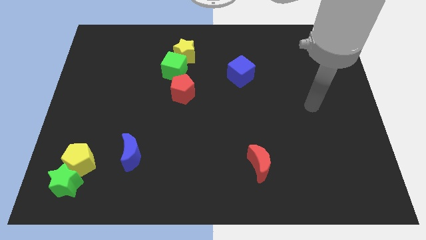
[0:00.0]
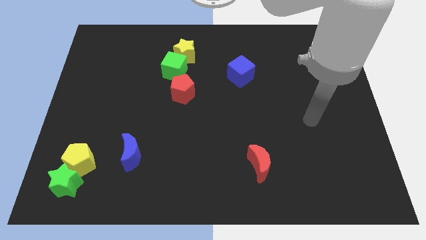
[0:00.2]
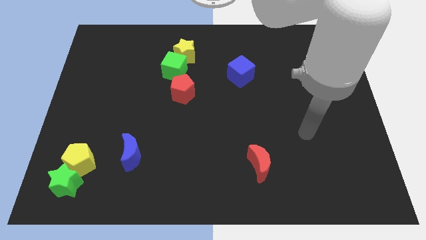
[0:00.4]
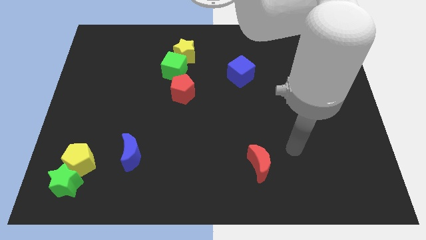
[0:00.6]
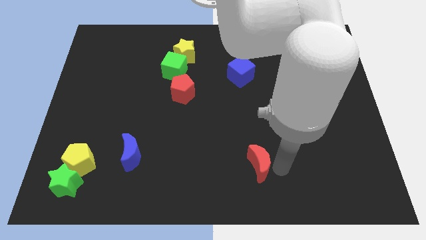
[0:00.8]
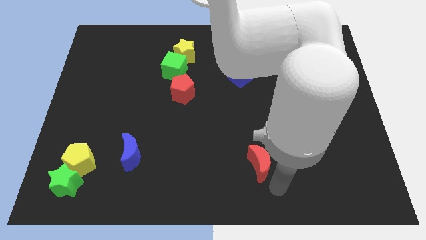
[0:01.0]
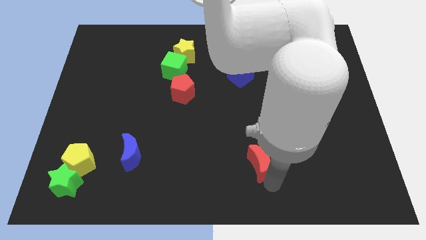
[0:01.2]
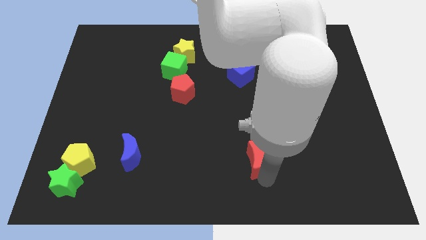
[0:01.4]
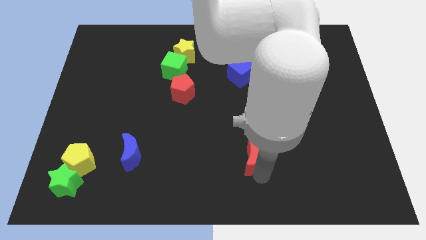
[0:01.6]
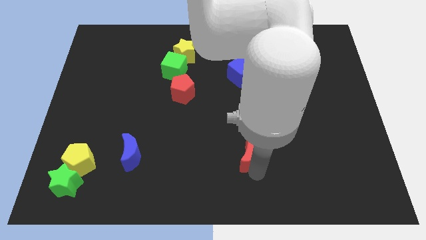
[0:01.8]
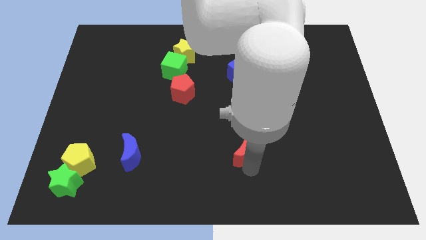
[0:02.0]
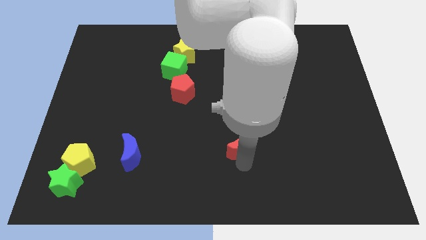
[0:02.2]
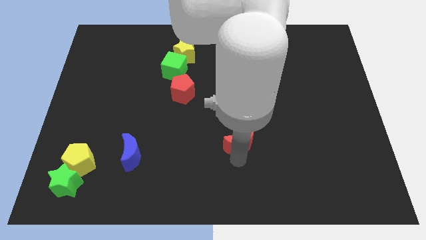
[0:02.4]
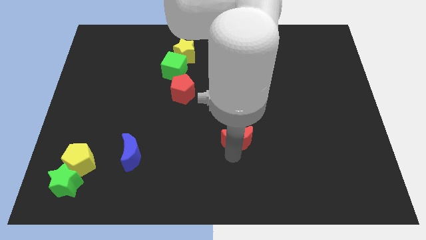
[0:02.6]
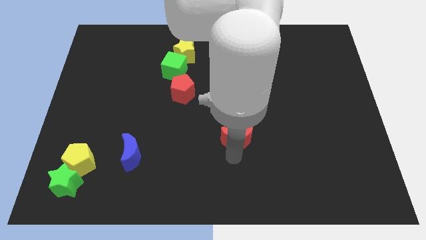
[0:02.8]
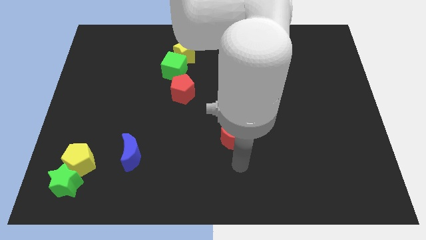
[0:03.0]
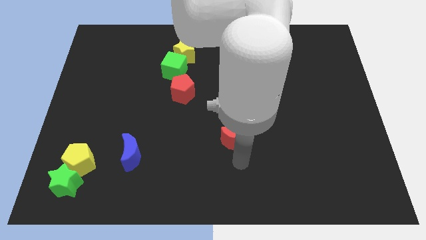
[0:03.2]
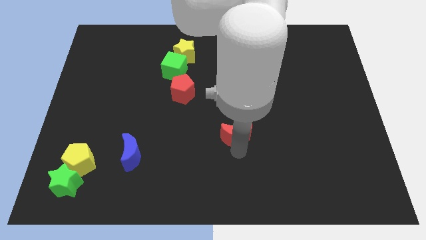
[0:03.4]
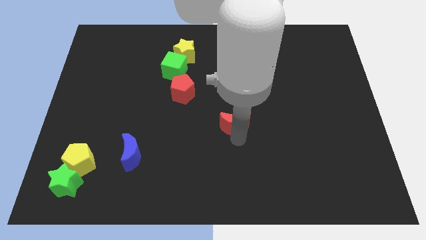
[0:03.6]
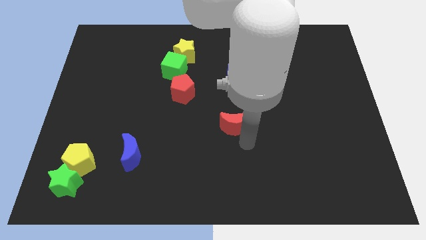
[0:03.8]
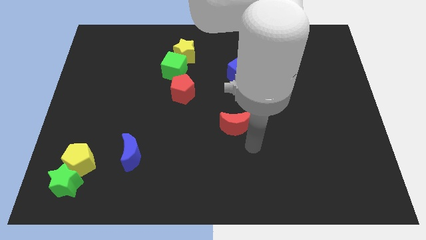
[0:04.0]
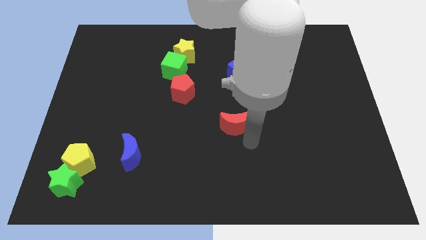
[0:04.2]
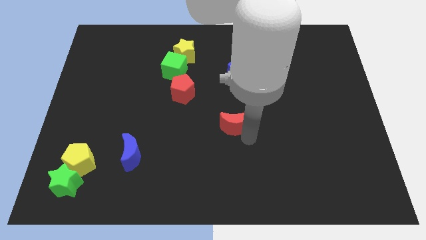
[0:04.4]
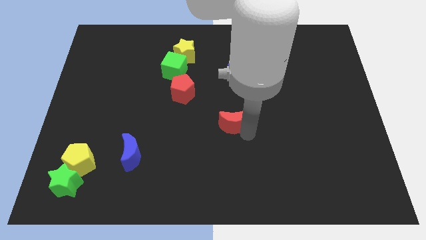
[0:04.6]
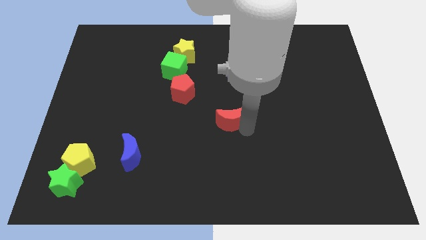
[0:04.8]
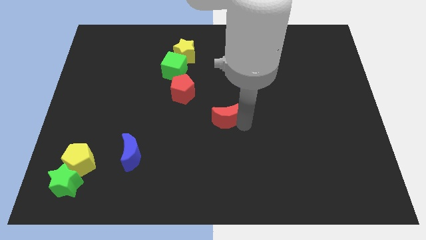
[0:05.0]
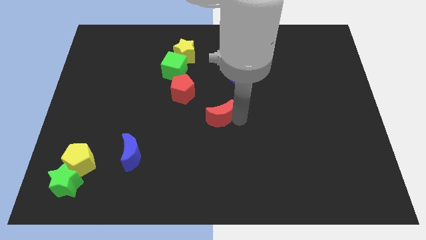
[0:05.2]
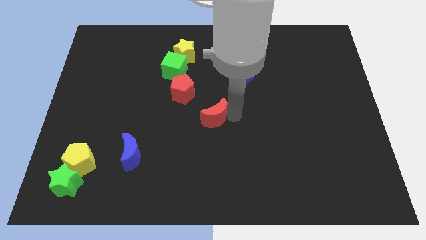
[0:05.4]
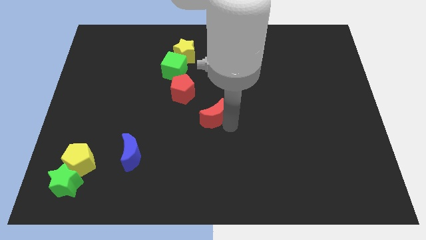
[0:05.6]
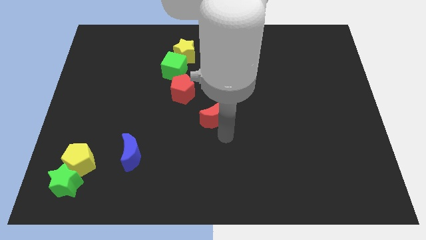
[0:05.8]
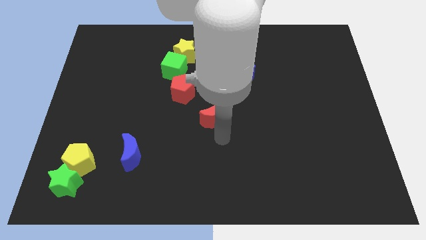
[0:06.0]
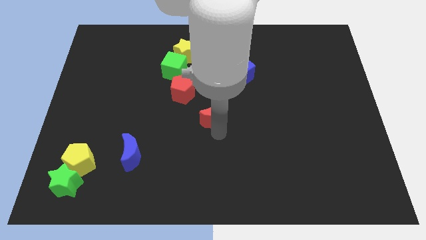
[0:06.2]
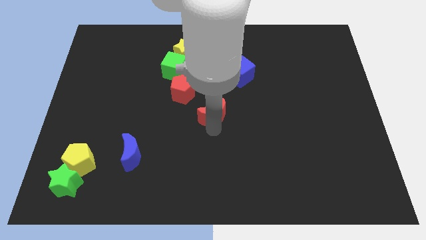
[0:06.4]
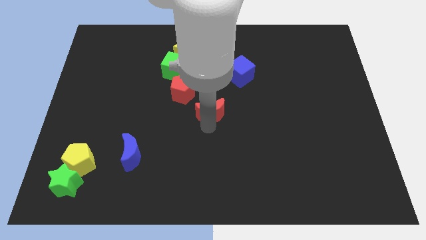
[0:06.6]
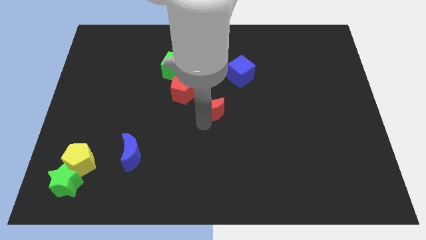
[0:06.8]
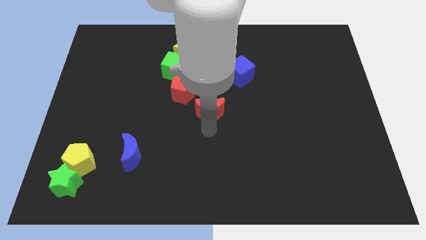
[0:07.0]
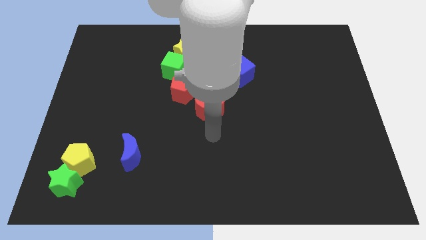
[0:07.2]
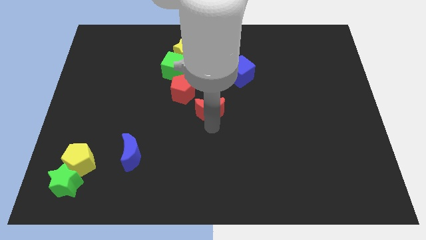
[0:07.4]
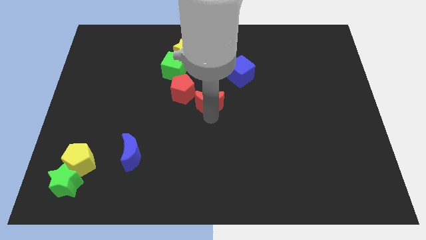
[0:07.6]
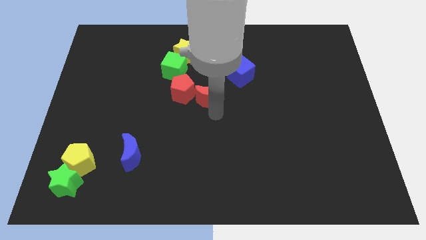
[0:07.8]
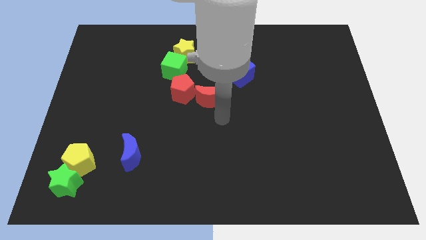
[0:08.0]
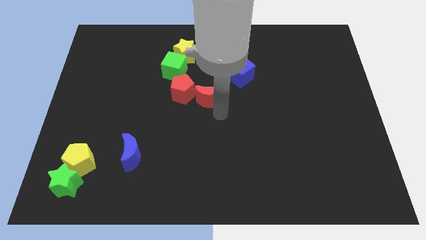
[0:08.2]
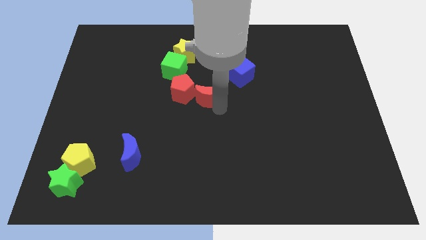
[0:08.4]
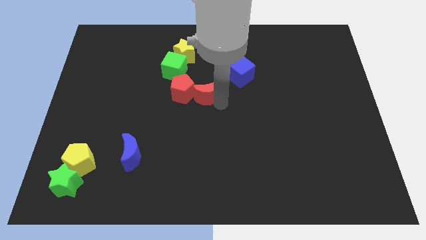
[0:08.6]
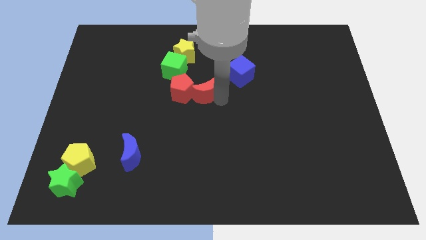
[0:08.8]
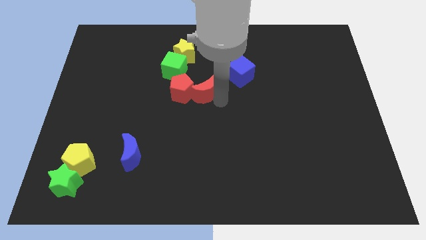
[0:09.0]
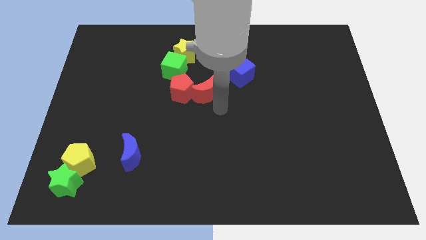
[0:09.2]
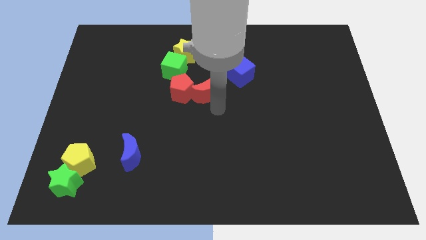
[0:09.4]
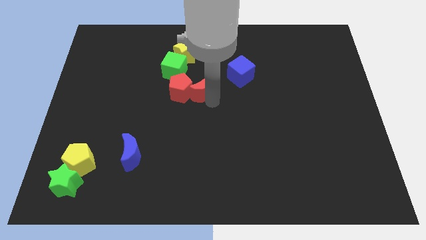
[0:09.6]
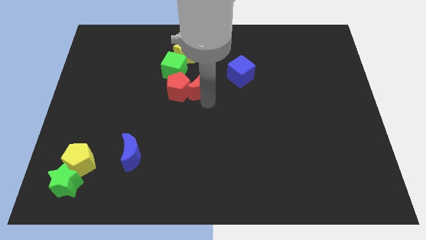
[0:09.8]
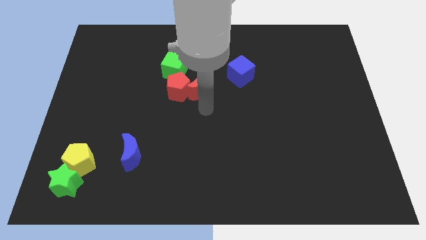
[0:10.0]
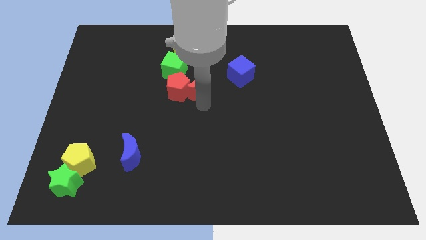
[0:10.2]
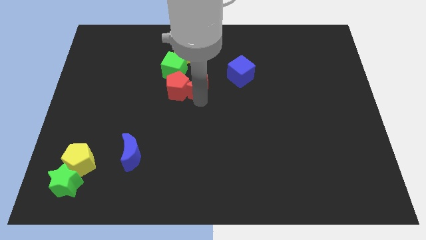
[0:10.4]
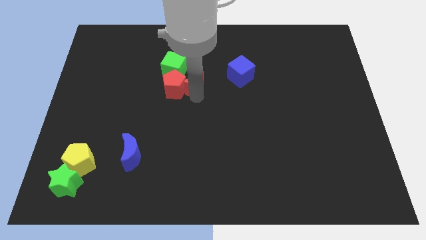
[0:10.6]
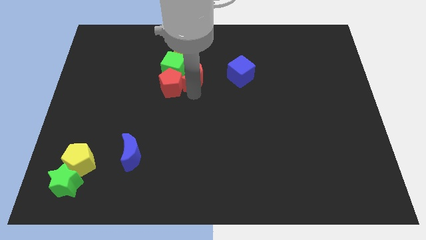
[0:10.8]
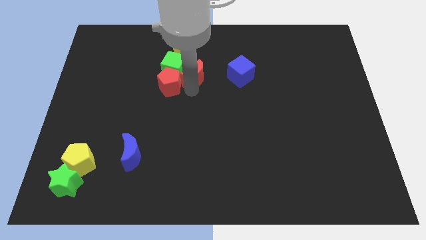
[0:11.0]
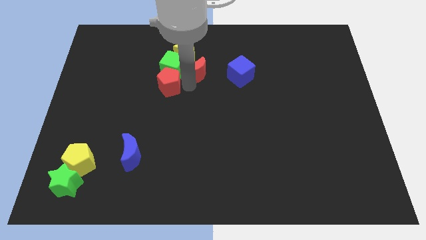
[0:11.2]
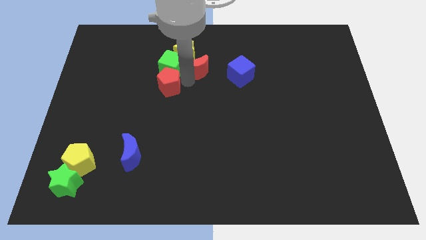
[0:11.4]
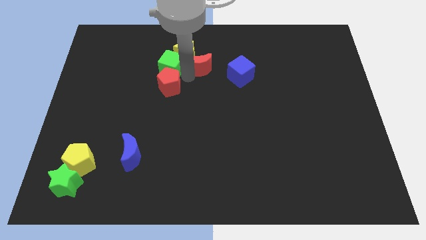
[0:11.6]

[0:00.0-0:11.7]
put the red moon to the top right side of the green cube

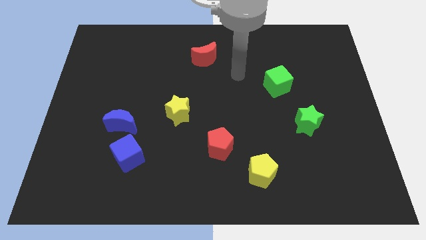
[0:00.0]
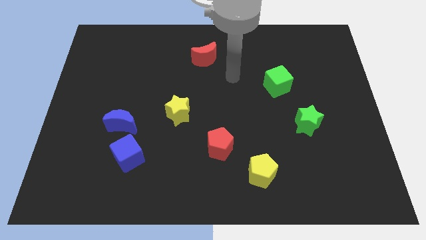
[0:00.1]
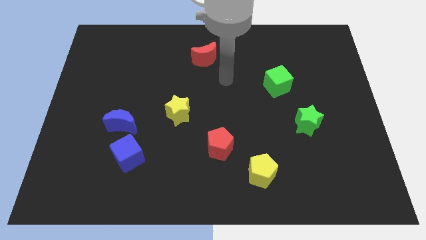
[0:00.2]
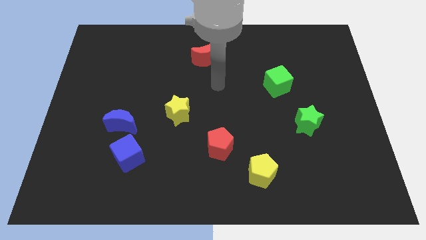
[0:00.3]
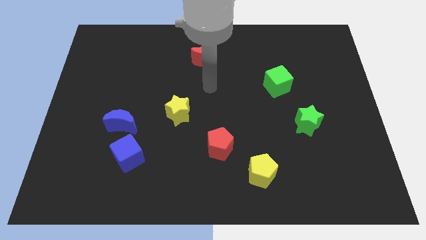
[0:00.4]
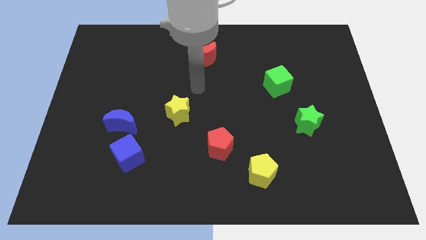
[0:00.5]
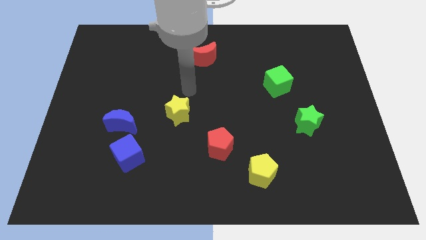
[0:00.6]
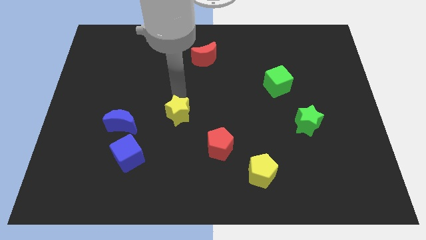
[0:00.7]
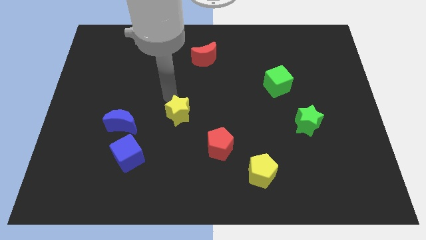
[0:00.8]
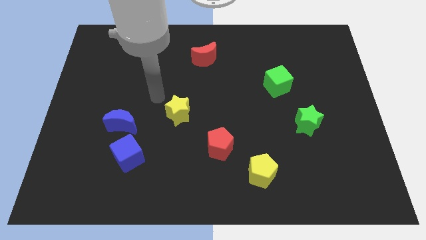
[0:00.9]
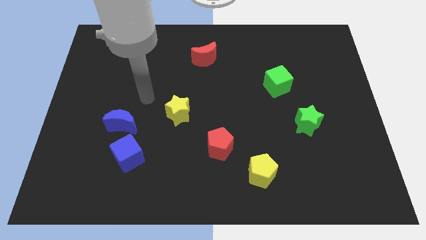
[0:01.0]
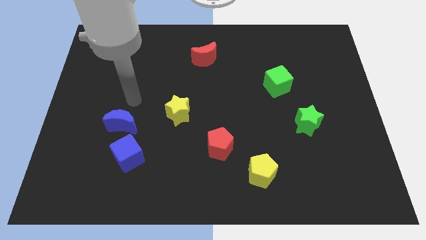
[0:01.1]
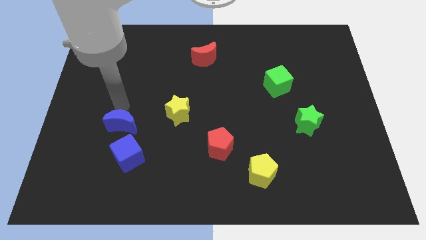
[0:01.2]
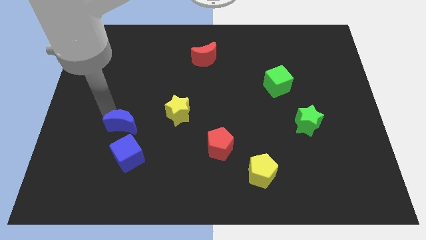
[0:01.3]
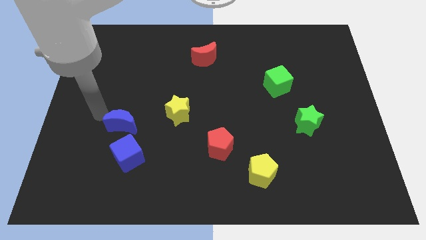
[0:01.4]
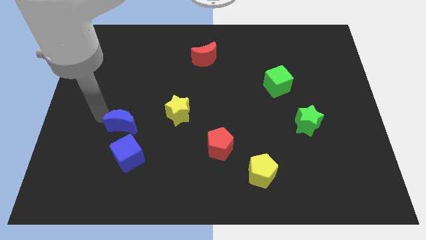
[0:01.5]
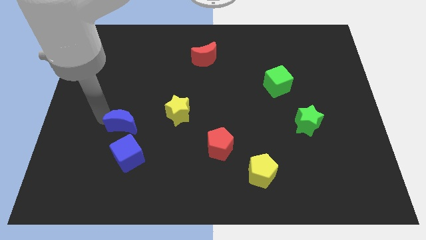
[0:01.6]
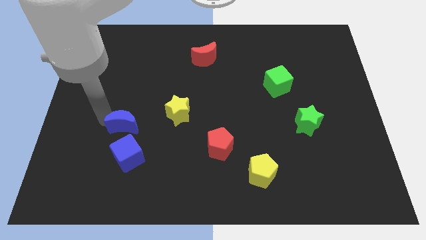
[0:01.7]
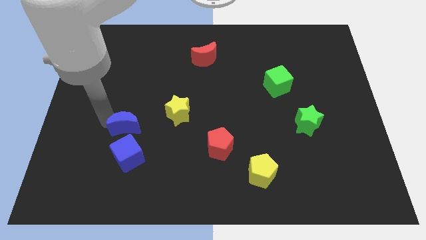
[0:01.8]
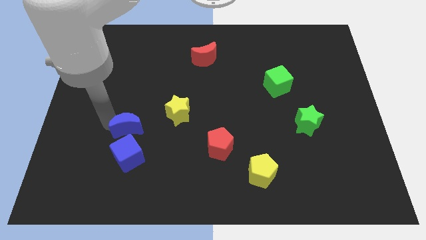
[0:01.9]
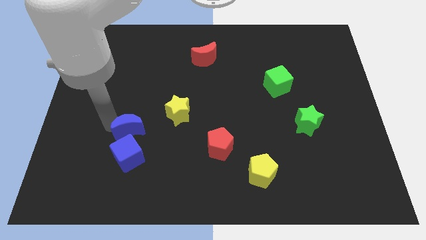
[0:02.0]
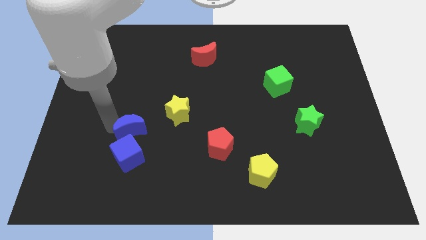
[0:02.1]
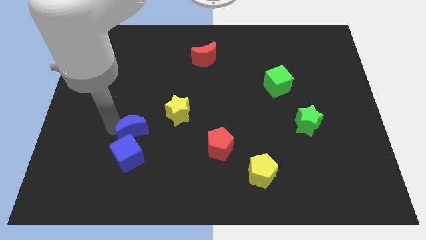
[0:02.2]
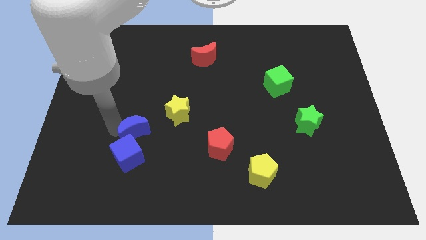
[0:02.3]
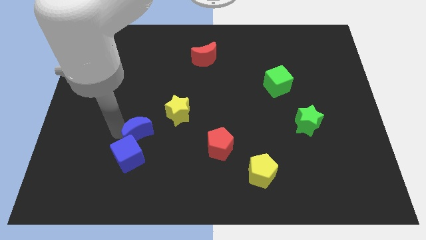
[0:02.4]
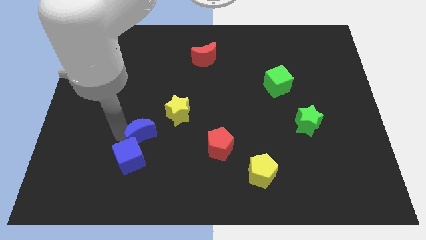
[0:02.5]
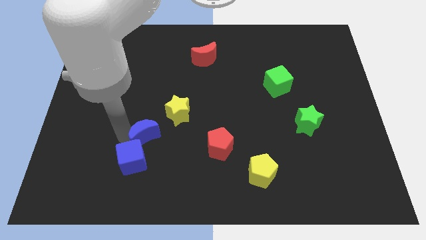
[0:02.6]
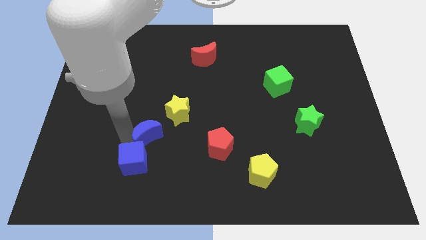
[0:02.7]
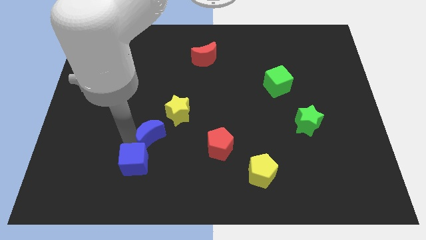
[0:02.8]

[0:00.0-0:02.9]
push the blue moon left of the red pentagon
